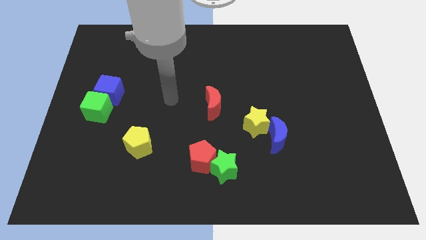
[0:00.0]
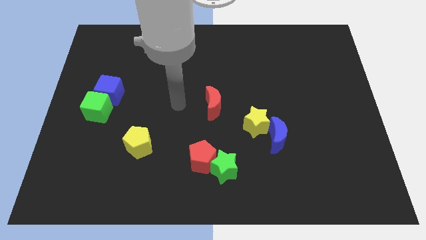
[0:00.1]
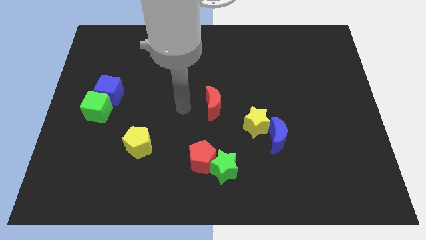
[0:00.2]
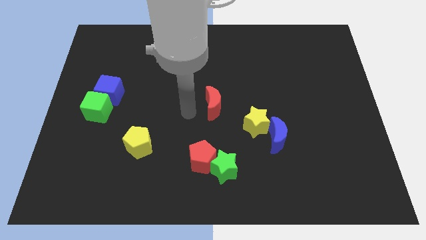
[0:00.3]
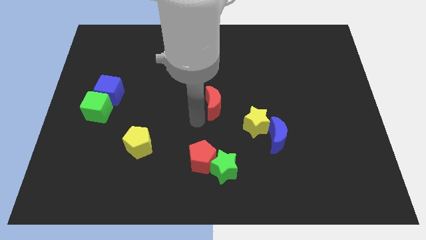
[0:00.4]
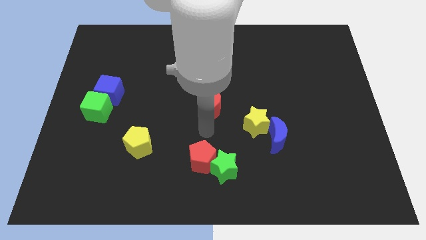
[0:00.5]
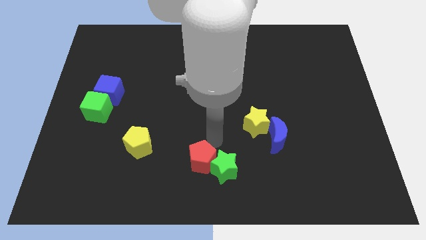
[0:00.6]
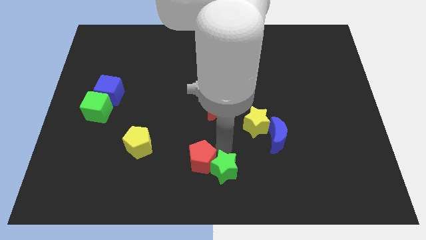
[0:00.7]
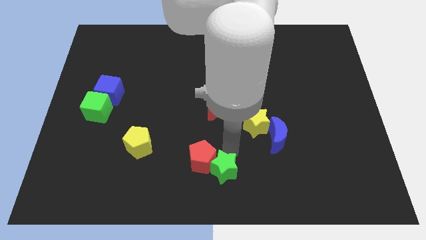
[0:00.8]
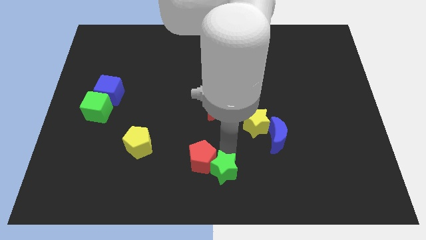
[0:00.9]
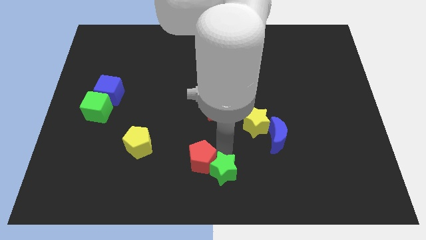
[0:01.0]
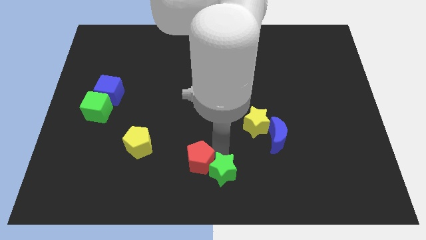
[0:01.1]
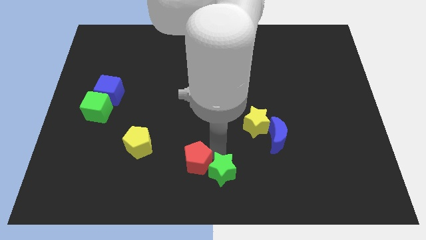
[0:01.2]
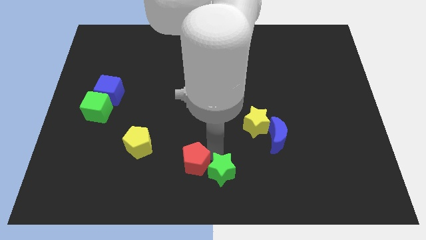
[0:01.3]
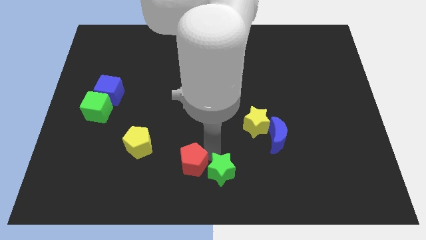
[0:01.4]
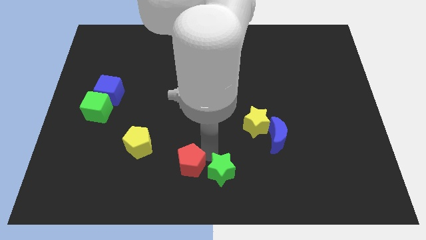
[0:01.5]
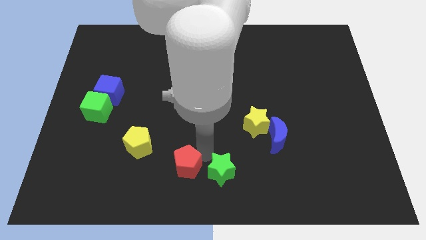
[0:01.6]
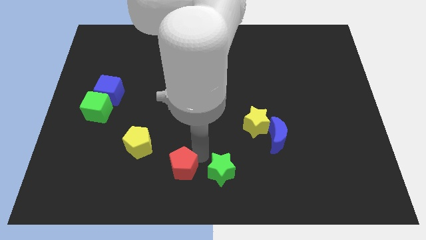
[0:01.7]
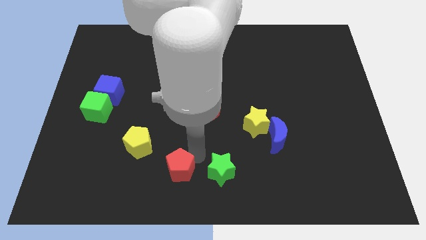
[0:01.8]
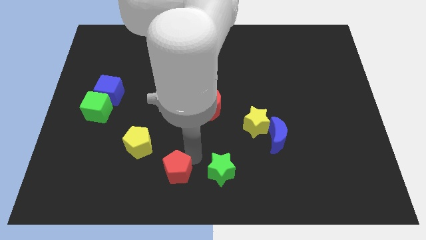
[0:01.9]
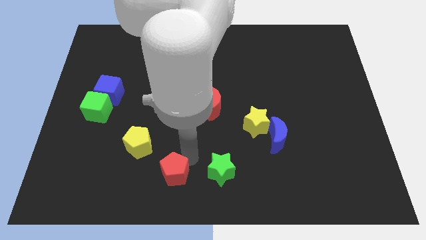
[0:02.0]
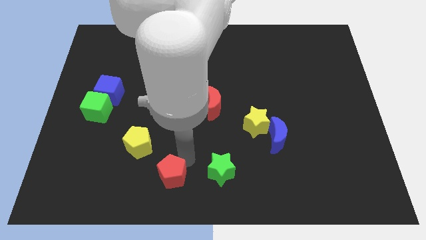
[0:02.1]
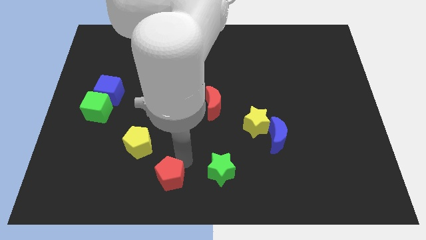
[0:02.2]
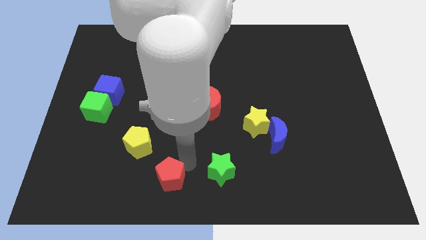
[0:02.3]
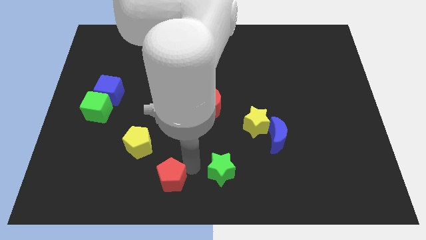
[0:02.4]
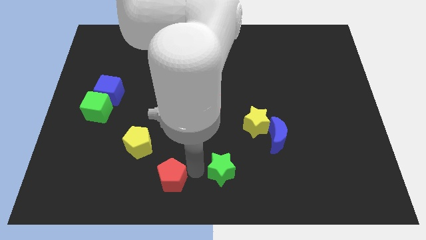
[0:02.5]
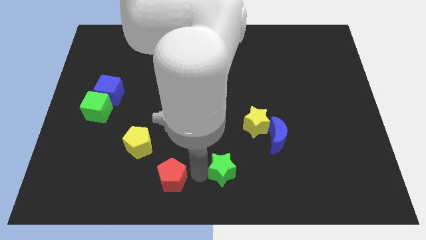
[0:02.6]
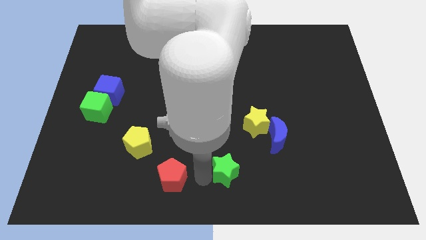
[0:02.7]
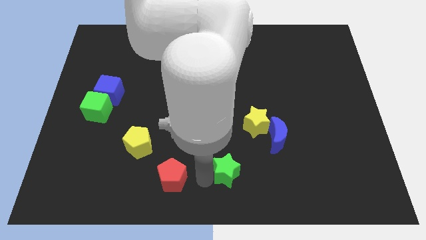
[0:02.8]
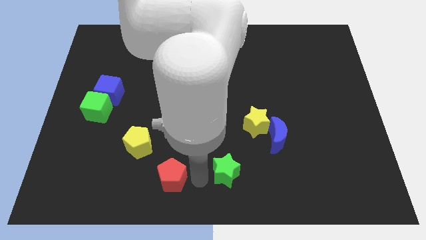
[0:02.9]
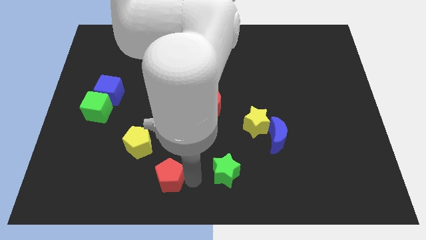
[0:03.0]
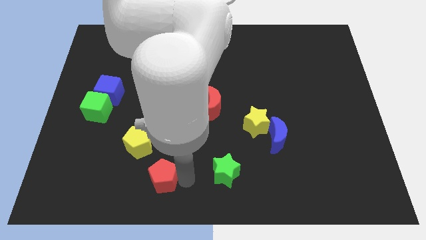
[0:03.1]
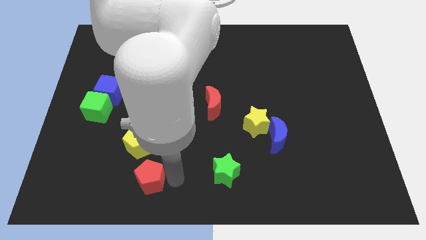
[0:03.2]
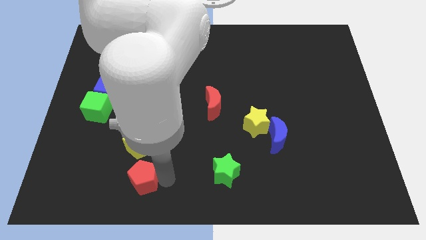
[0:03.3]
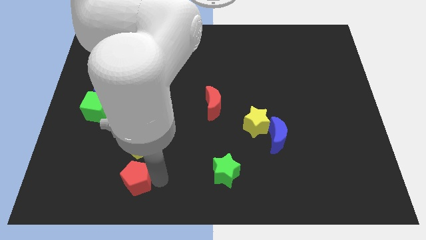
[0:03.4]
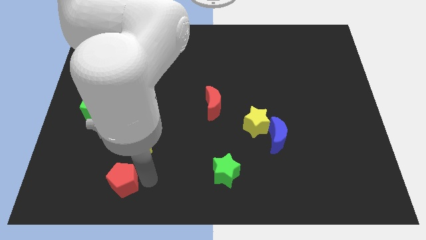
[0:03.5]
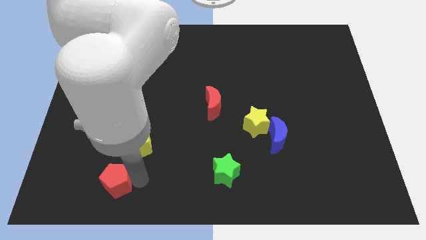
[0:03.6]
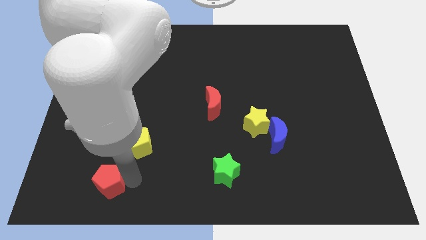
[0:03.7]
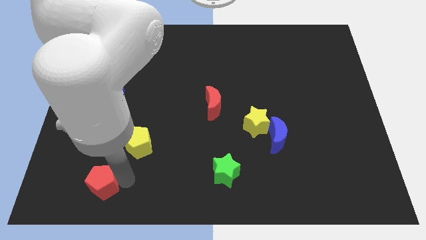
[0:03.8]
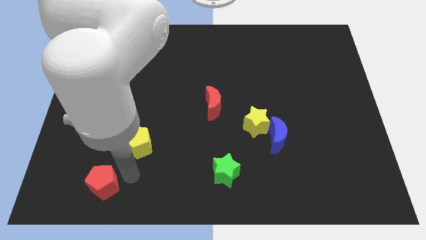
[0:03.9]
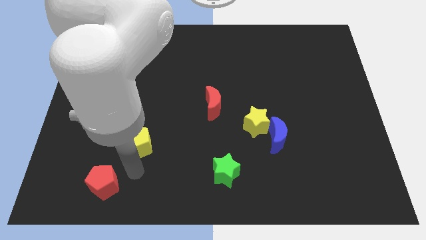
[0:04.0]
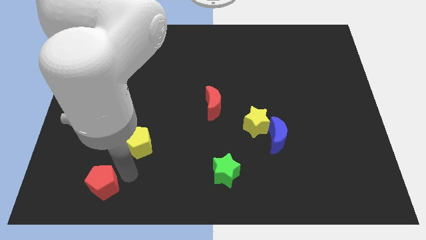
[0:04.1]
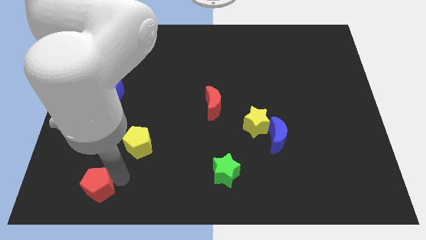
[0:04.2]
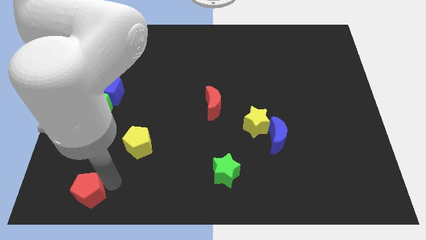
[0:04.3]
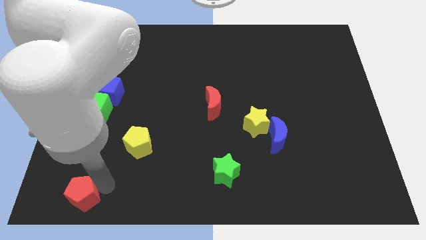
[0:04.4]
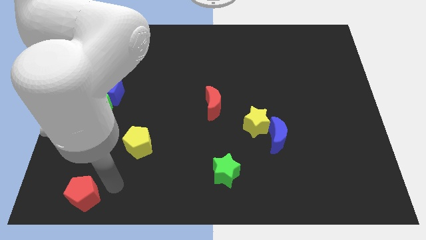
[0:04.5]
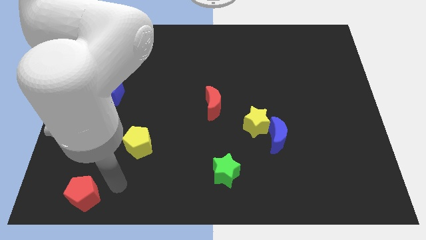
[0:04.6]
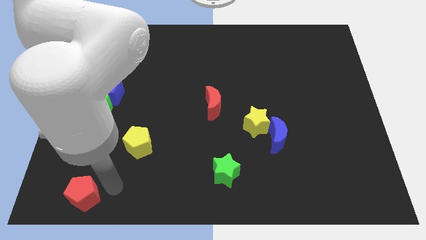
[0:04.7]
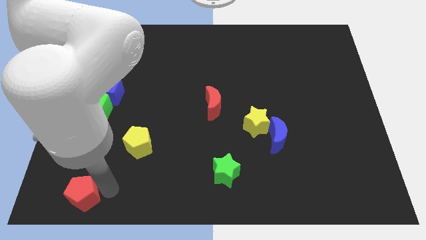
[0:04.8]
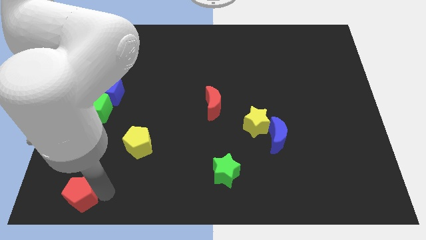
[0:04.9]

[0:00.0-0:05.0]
push the red pentagon to the lower left corner

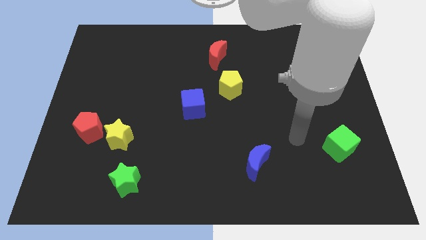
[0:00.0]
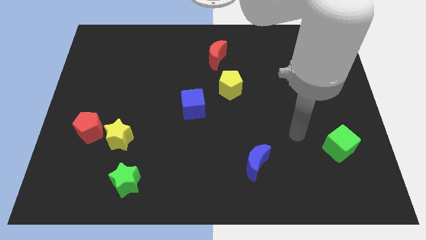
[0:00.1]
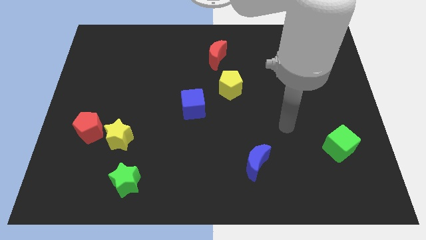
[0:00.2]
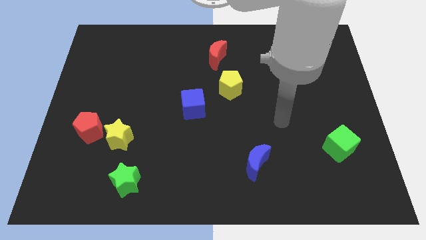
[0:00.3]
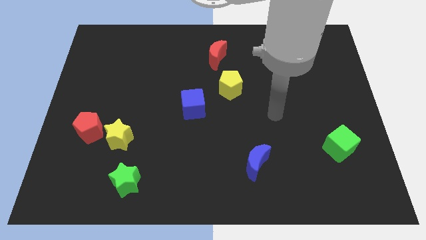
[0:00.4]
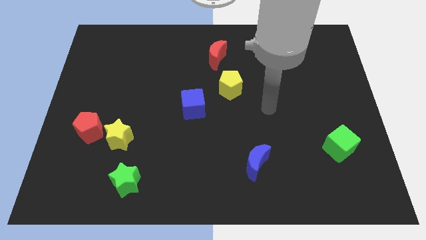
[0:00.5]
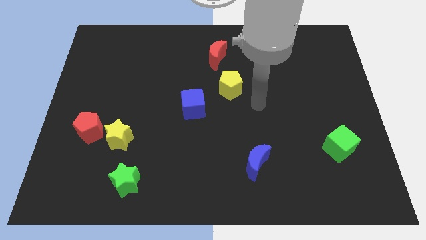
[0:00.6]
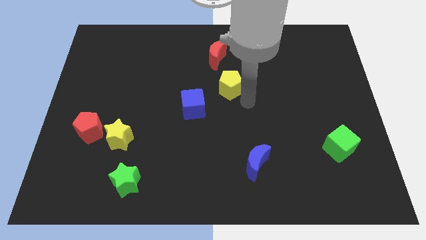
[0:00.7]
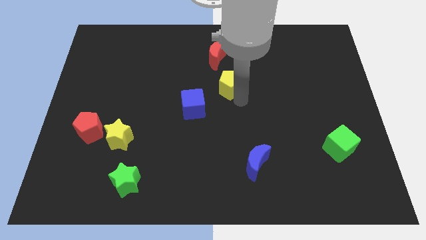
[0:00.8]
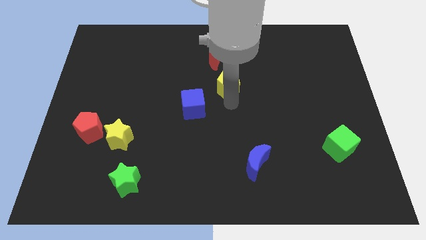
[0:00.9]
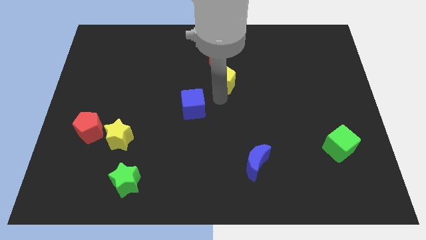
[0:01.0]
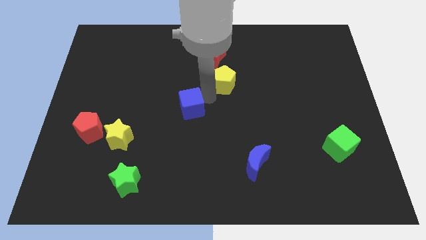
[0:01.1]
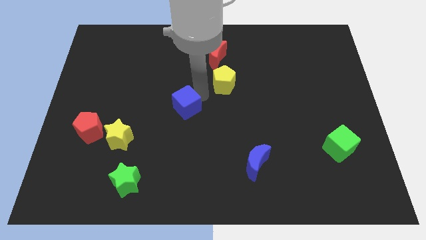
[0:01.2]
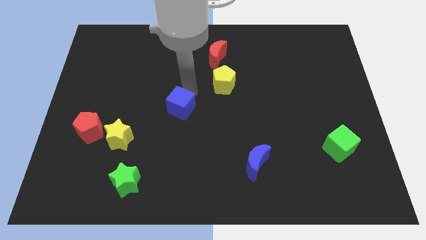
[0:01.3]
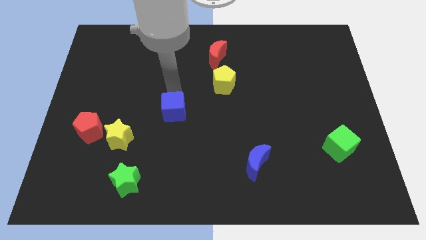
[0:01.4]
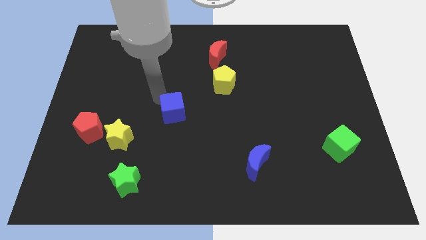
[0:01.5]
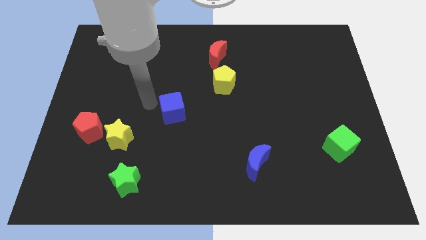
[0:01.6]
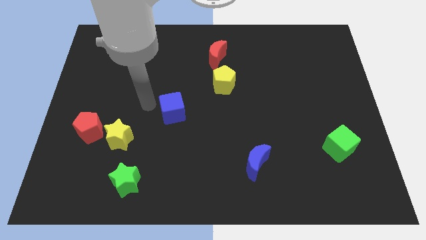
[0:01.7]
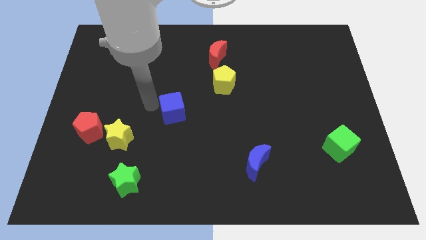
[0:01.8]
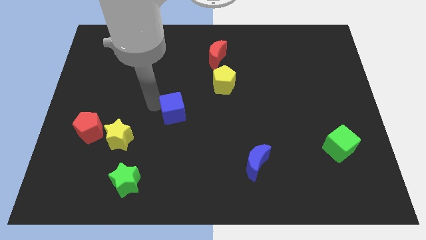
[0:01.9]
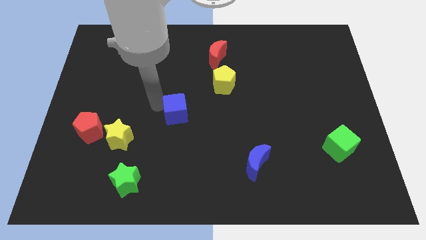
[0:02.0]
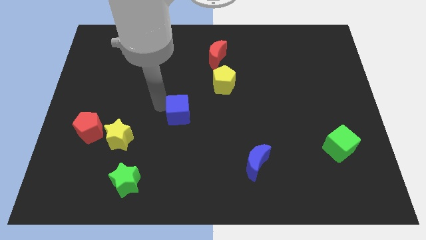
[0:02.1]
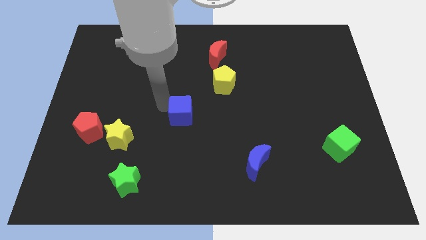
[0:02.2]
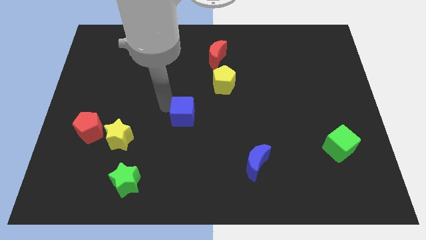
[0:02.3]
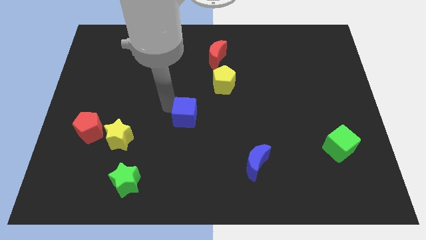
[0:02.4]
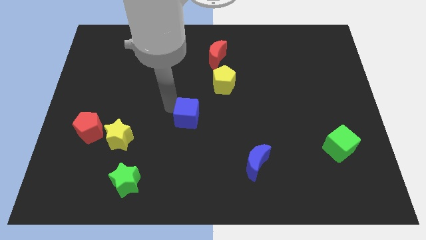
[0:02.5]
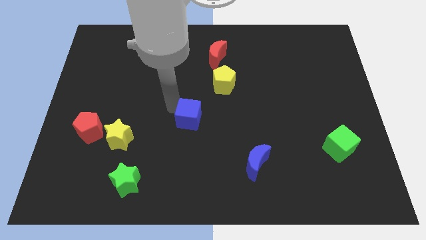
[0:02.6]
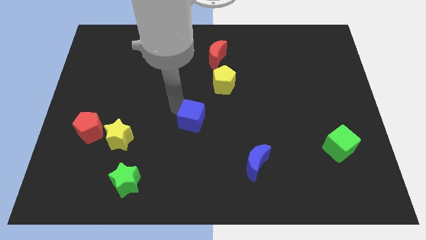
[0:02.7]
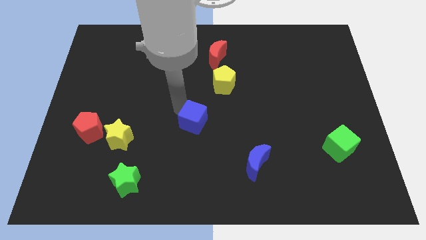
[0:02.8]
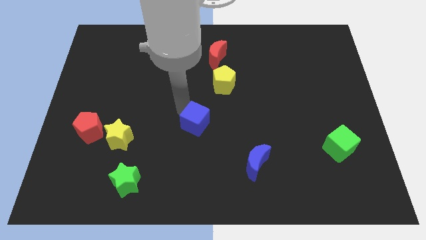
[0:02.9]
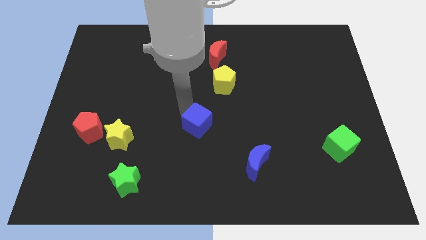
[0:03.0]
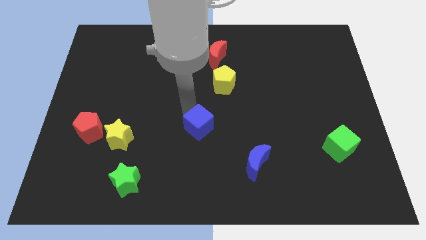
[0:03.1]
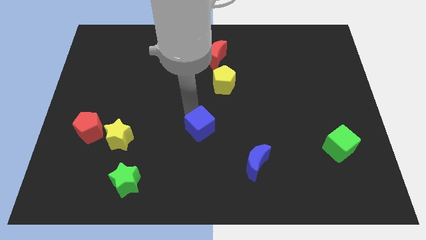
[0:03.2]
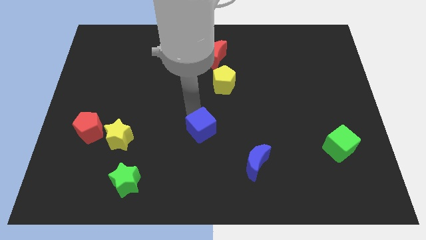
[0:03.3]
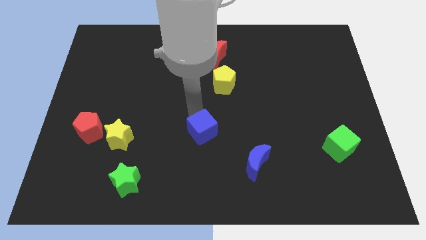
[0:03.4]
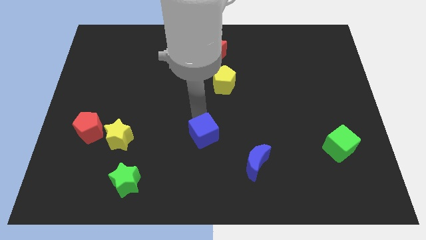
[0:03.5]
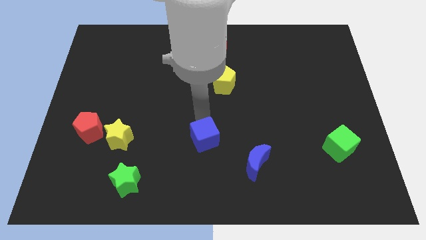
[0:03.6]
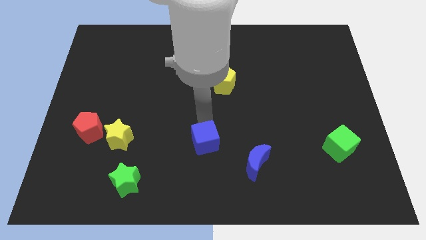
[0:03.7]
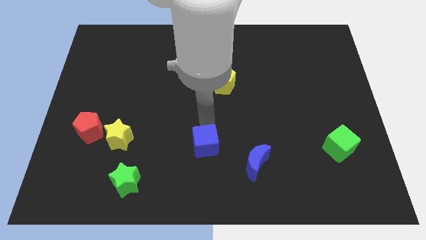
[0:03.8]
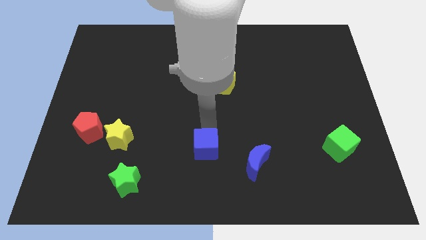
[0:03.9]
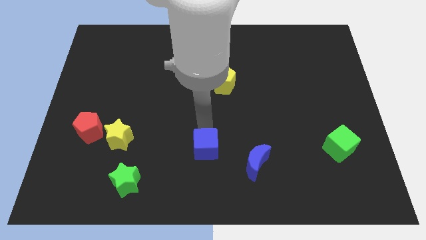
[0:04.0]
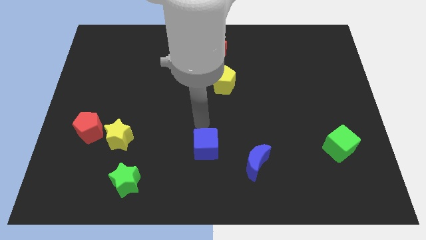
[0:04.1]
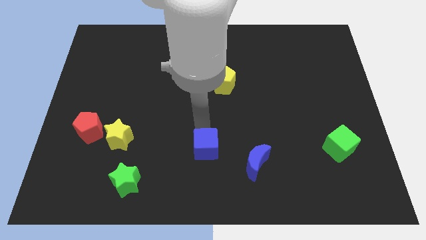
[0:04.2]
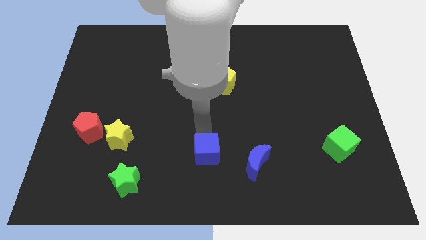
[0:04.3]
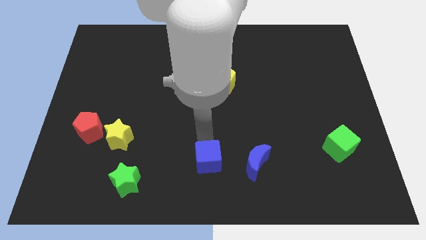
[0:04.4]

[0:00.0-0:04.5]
push the blue cube to the bottom
